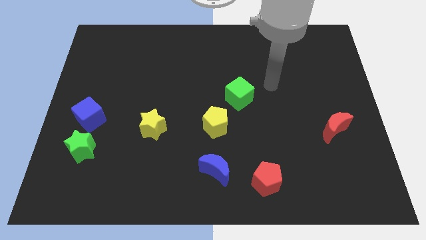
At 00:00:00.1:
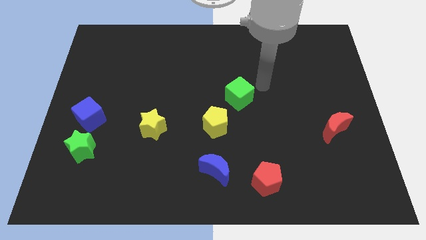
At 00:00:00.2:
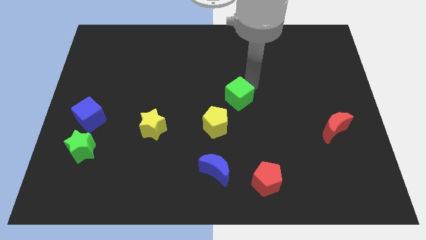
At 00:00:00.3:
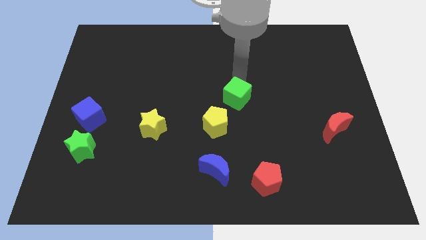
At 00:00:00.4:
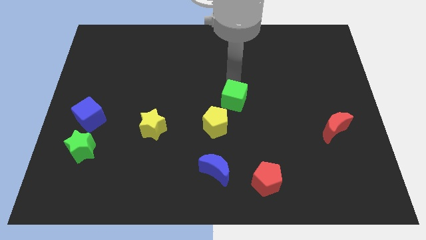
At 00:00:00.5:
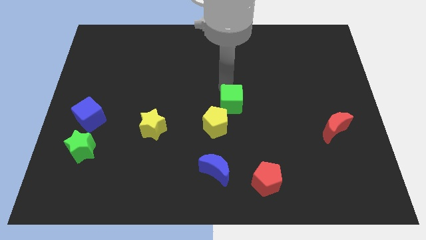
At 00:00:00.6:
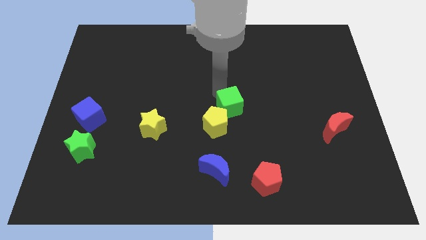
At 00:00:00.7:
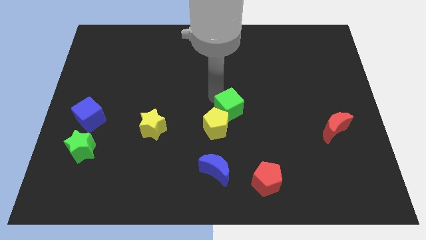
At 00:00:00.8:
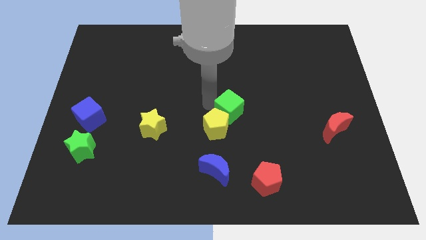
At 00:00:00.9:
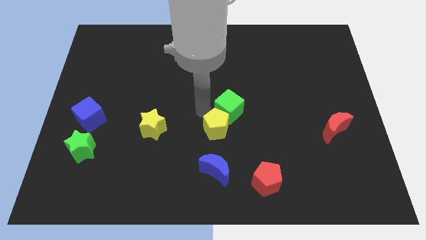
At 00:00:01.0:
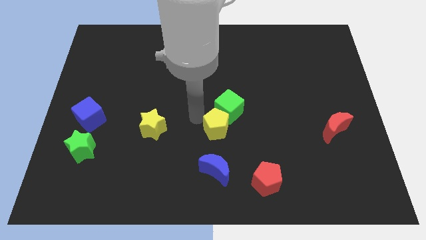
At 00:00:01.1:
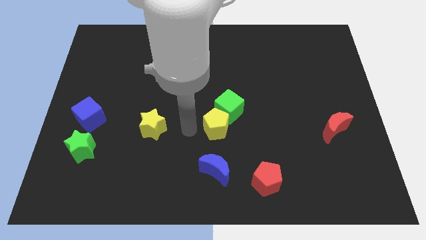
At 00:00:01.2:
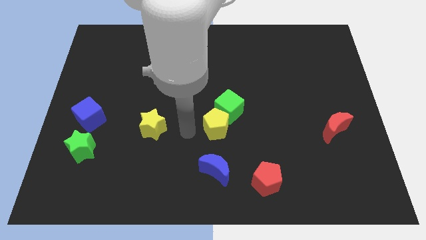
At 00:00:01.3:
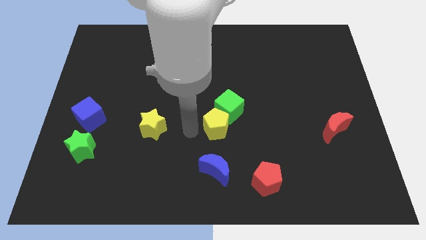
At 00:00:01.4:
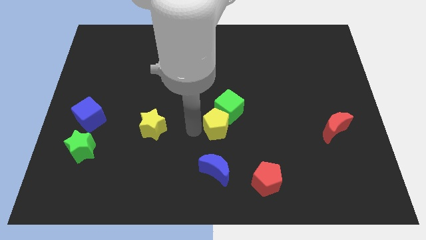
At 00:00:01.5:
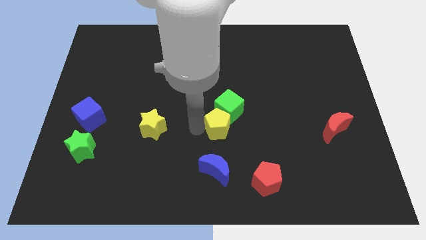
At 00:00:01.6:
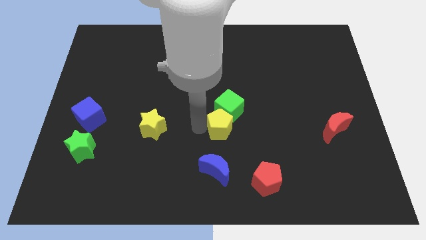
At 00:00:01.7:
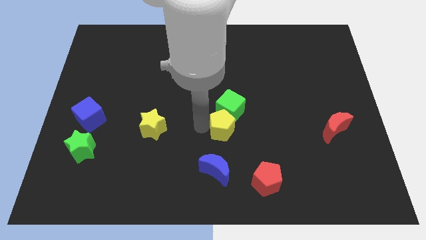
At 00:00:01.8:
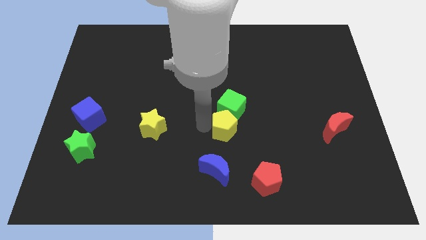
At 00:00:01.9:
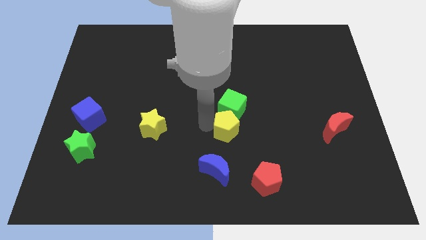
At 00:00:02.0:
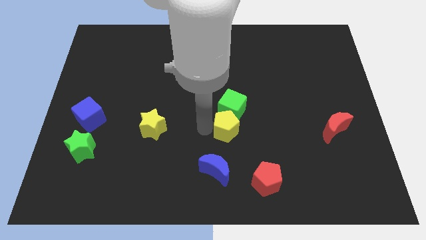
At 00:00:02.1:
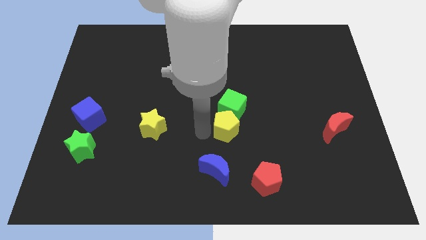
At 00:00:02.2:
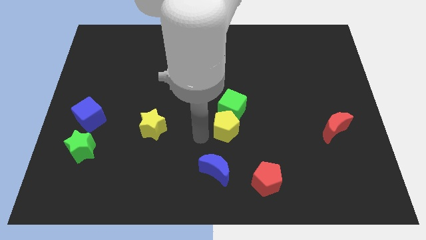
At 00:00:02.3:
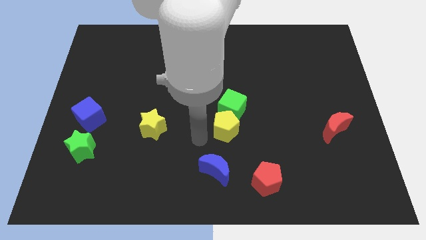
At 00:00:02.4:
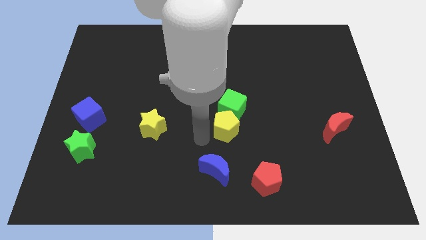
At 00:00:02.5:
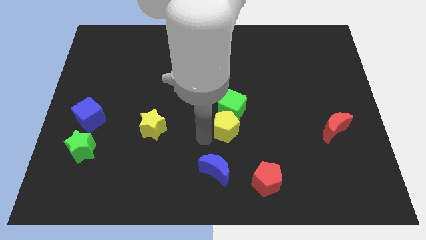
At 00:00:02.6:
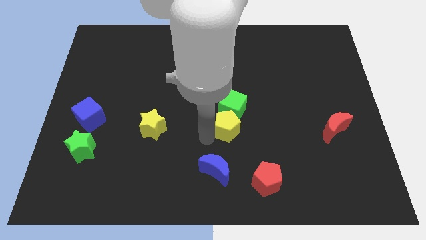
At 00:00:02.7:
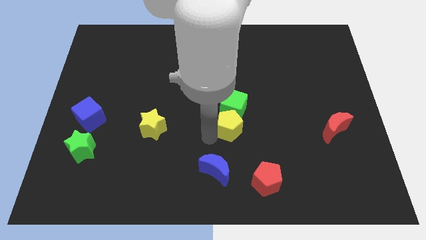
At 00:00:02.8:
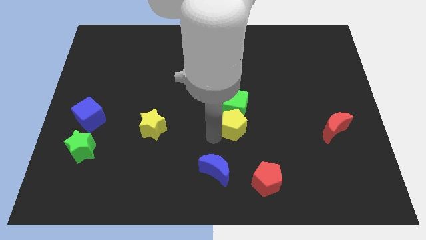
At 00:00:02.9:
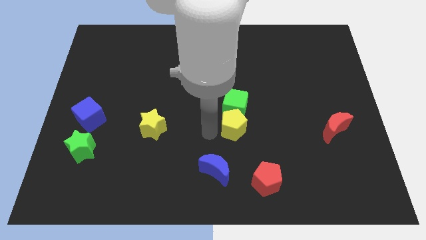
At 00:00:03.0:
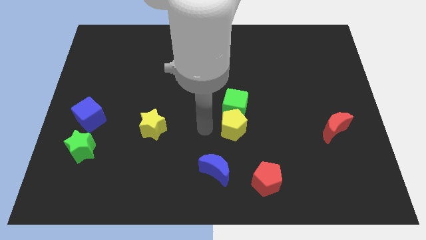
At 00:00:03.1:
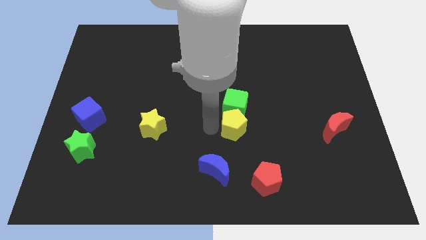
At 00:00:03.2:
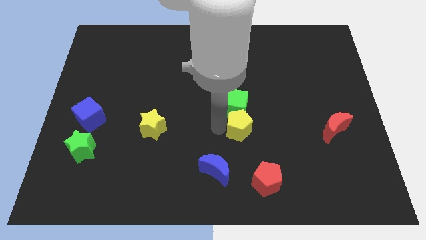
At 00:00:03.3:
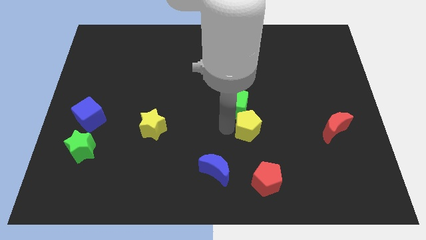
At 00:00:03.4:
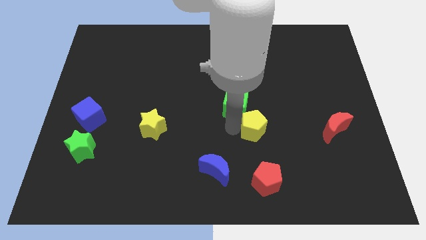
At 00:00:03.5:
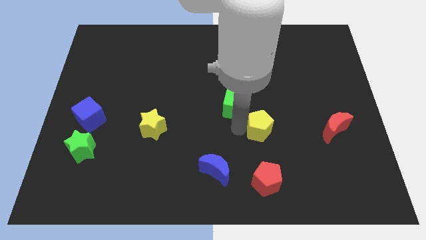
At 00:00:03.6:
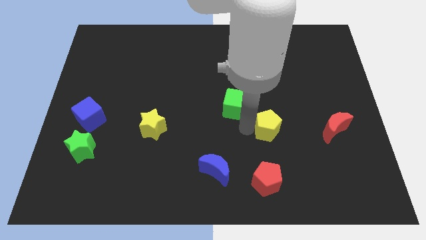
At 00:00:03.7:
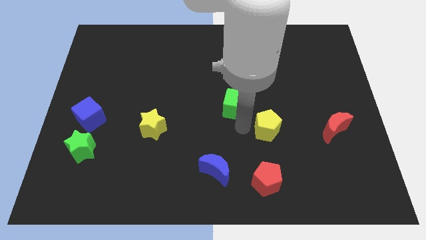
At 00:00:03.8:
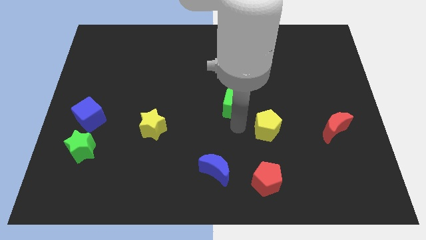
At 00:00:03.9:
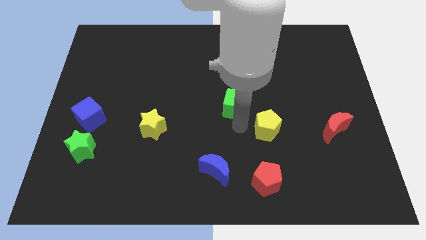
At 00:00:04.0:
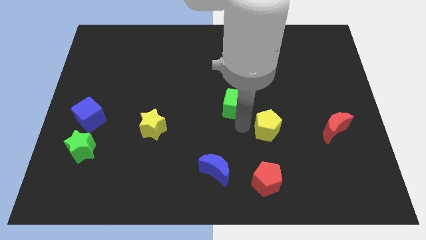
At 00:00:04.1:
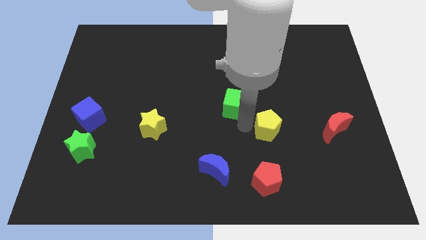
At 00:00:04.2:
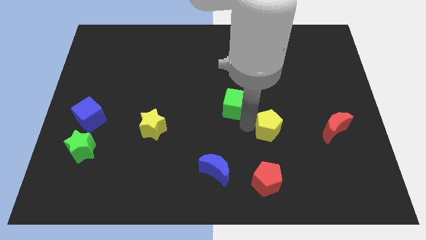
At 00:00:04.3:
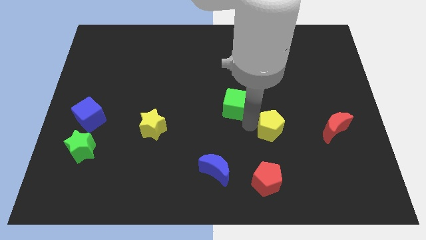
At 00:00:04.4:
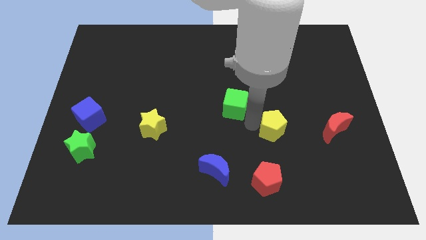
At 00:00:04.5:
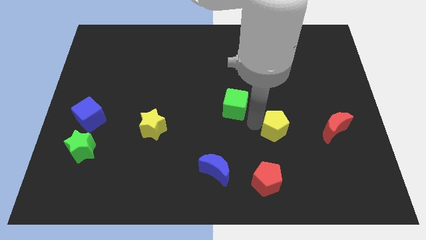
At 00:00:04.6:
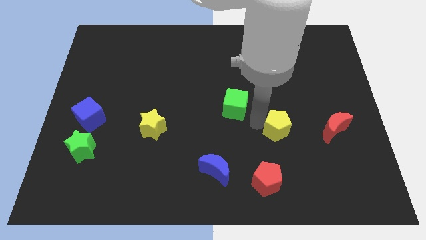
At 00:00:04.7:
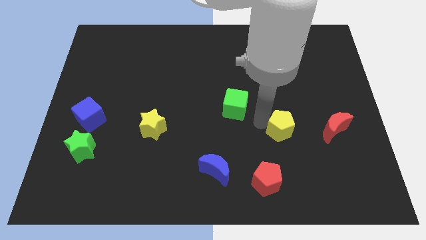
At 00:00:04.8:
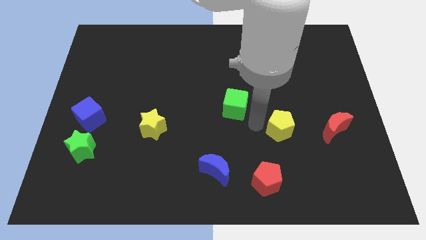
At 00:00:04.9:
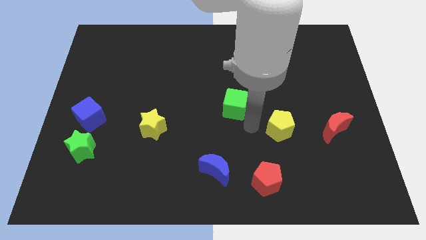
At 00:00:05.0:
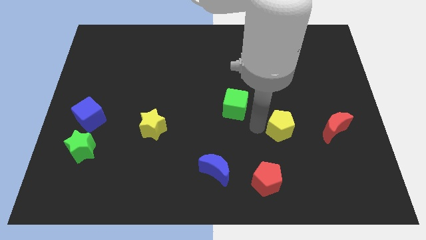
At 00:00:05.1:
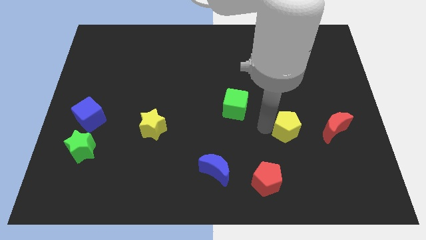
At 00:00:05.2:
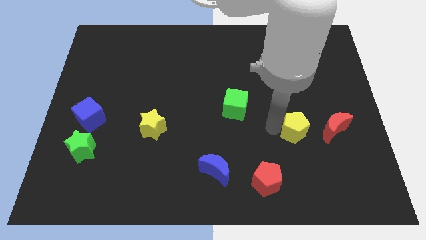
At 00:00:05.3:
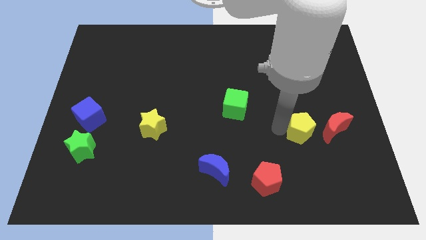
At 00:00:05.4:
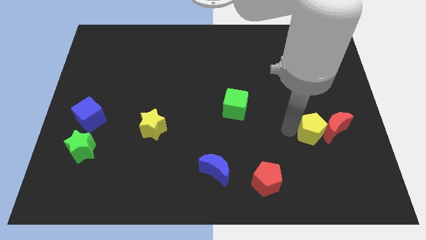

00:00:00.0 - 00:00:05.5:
put the yellow pentagon towards the red moon
